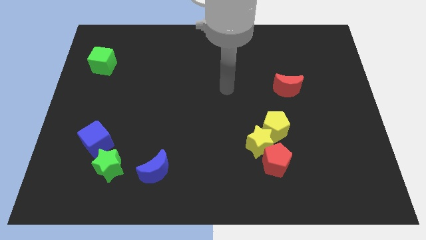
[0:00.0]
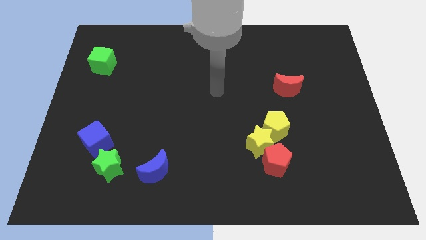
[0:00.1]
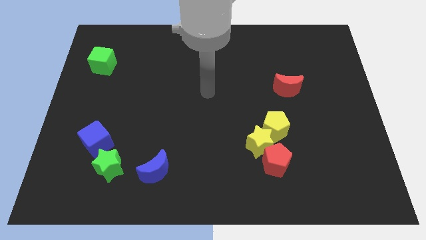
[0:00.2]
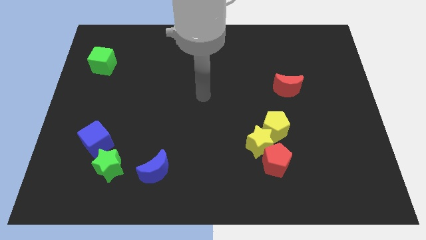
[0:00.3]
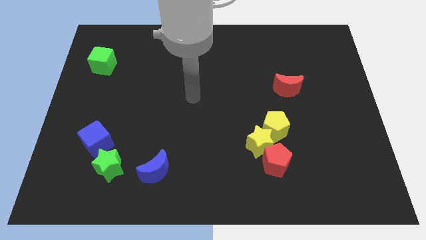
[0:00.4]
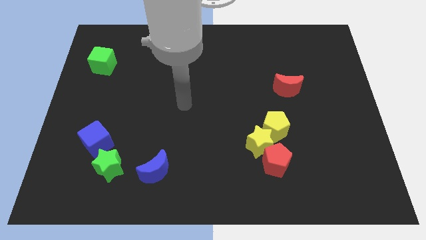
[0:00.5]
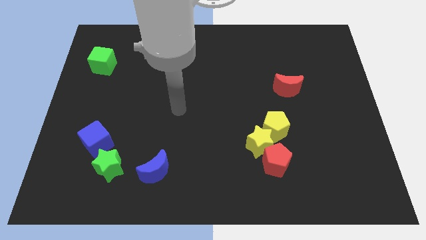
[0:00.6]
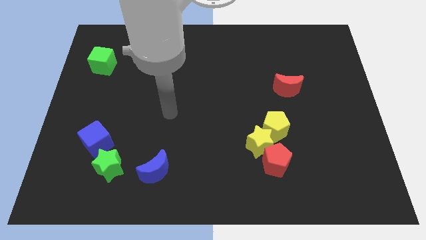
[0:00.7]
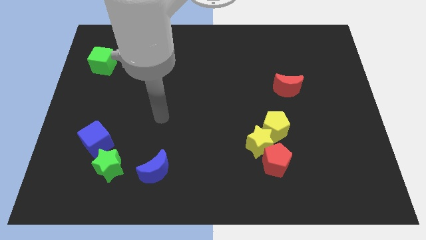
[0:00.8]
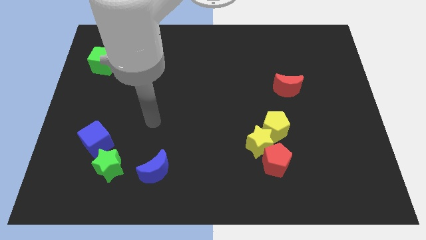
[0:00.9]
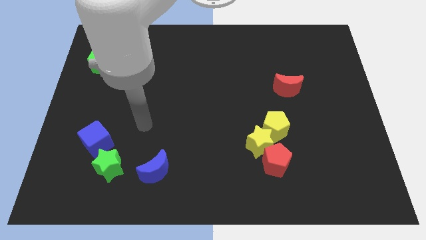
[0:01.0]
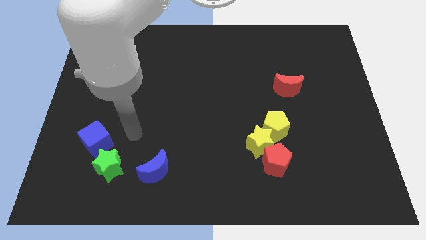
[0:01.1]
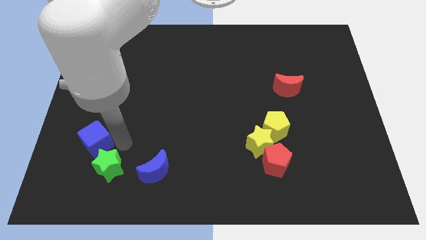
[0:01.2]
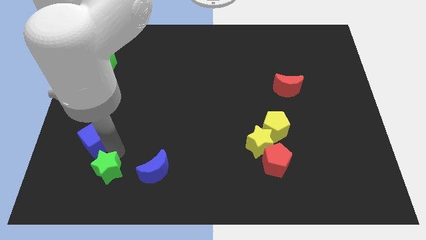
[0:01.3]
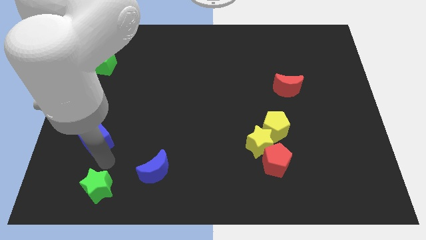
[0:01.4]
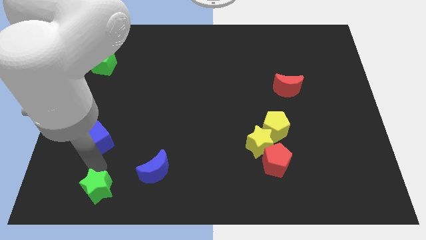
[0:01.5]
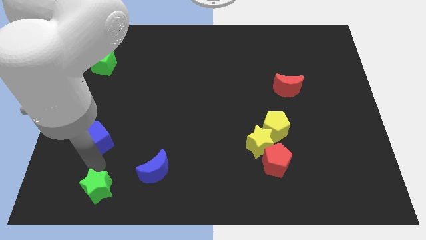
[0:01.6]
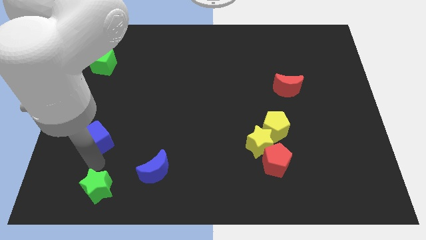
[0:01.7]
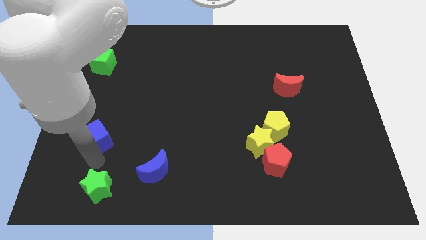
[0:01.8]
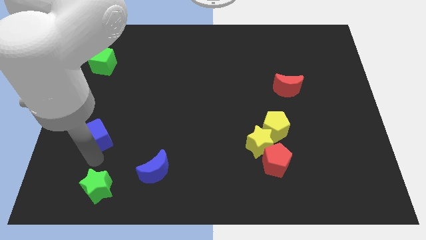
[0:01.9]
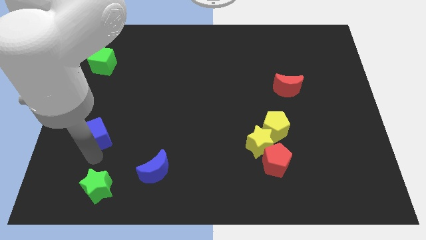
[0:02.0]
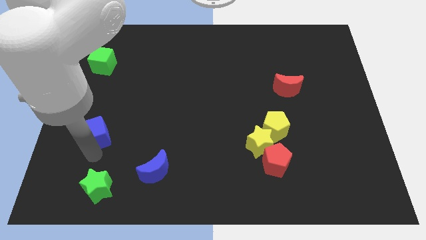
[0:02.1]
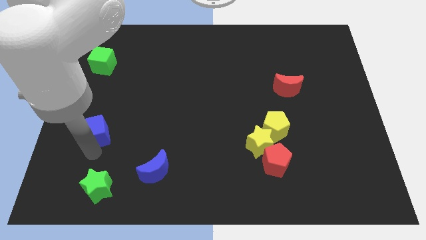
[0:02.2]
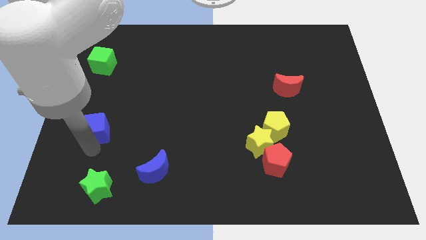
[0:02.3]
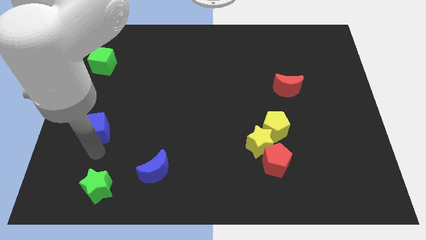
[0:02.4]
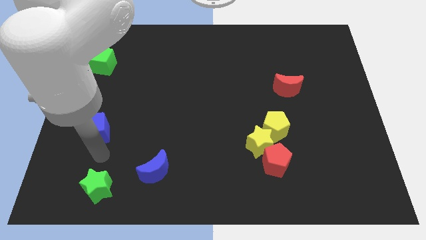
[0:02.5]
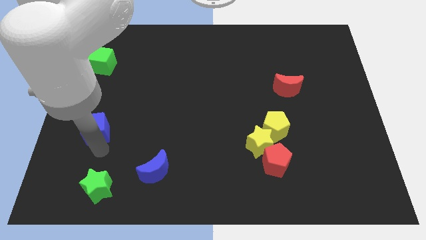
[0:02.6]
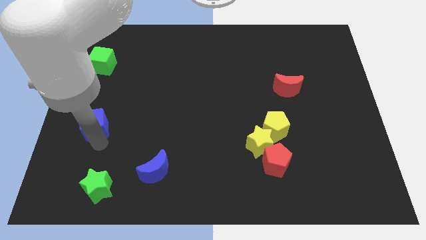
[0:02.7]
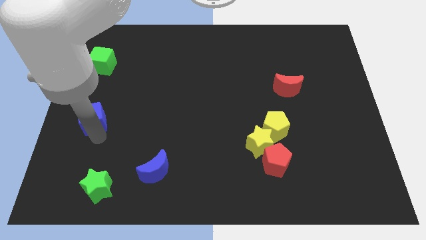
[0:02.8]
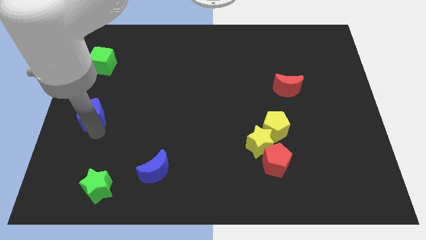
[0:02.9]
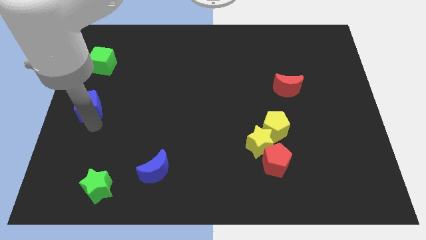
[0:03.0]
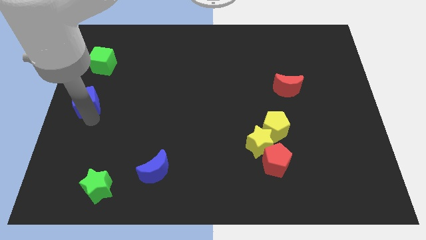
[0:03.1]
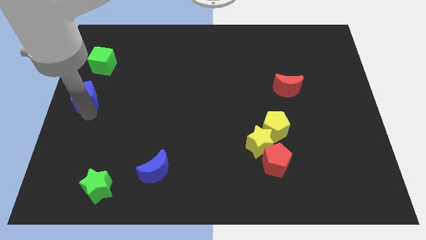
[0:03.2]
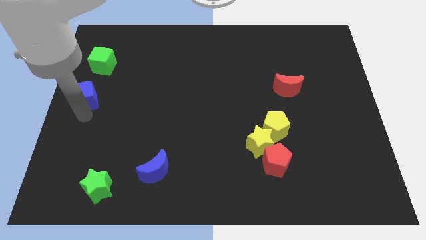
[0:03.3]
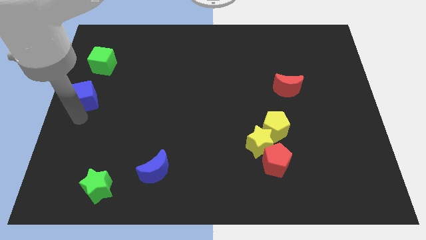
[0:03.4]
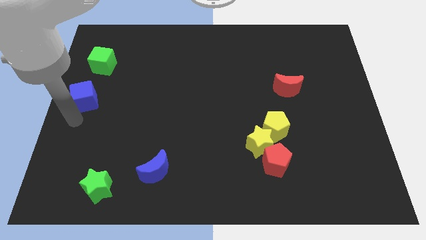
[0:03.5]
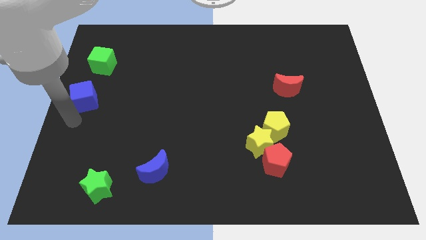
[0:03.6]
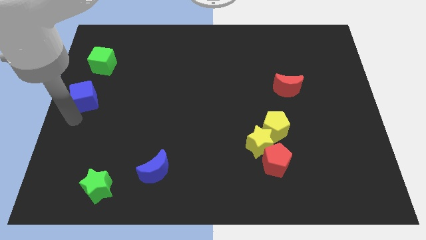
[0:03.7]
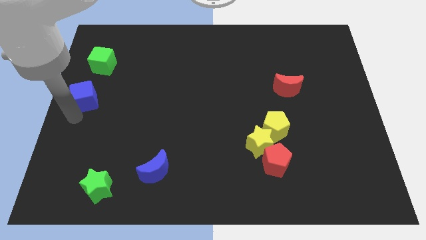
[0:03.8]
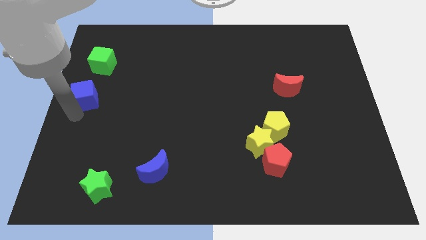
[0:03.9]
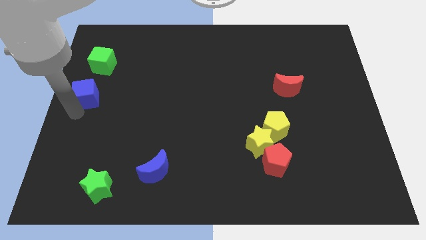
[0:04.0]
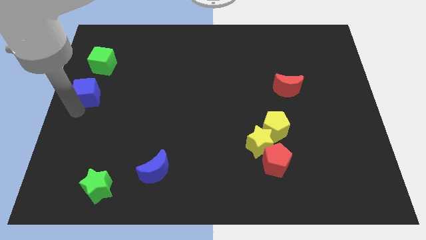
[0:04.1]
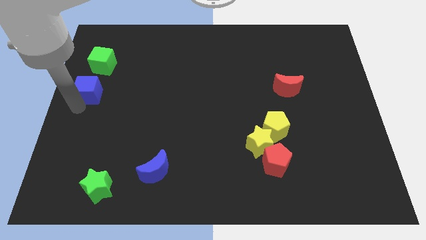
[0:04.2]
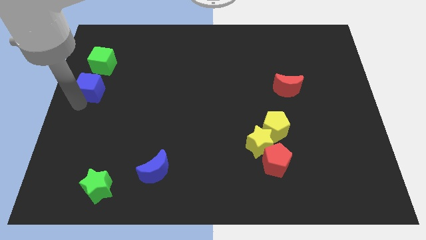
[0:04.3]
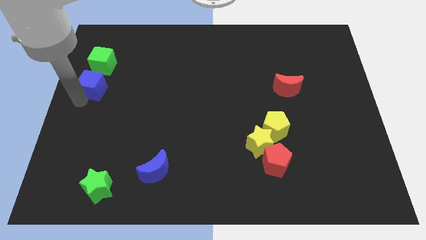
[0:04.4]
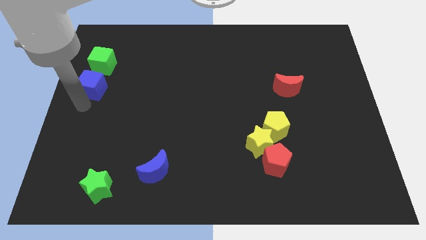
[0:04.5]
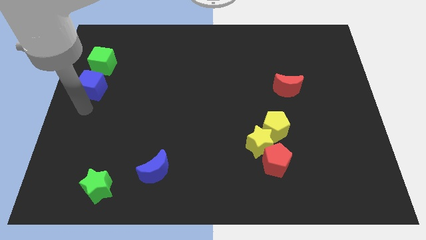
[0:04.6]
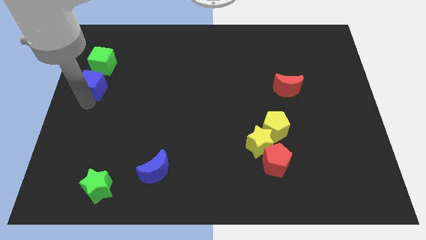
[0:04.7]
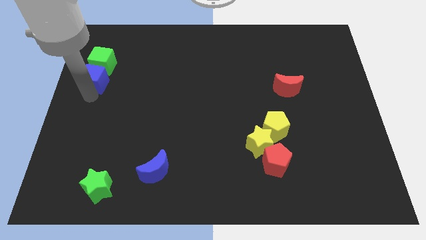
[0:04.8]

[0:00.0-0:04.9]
slide the blue cube next to the green cube

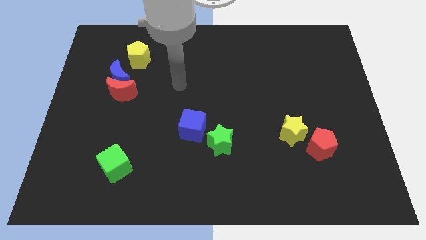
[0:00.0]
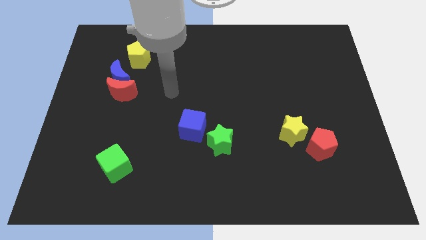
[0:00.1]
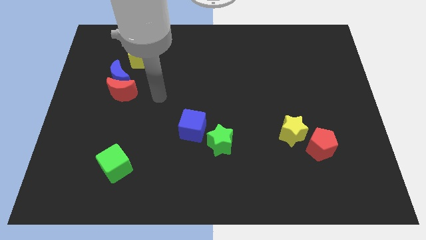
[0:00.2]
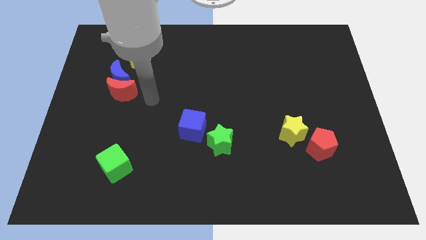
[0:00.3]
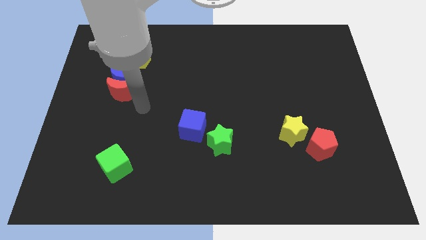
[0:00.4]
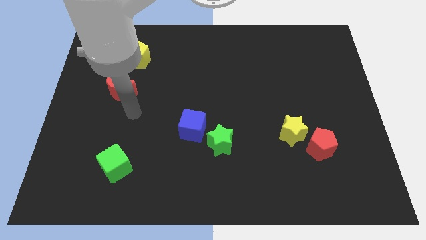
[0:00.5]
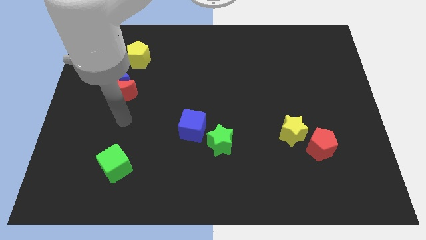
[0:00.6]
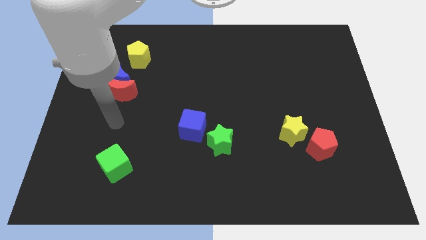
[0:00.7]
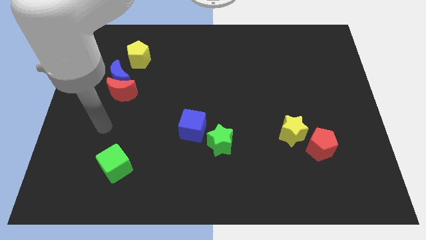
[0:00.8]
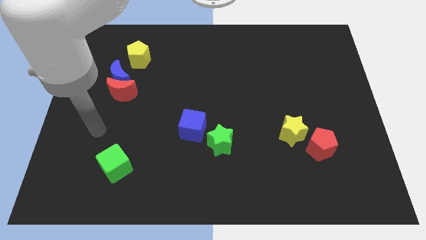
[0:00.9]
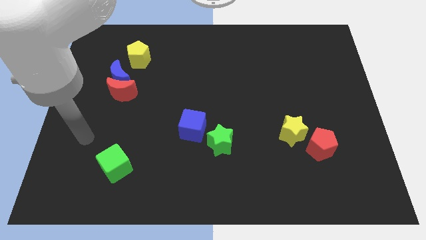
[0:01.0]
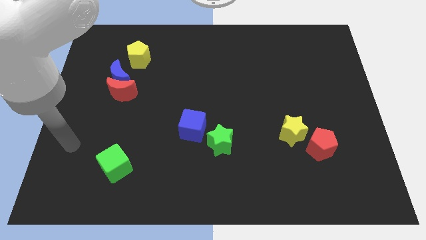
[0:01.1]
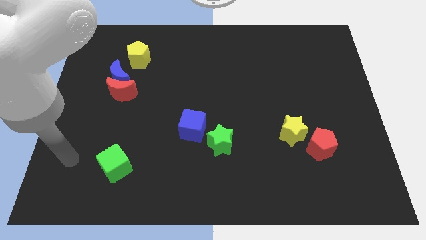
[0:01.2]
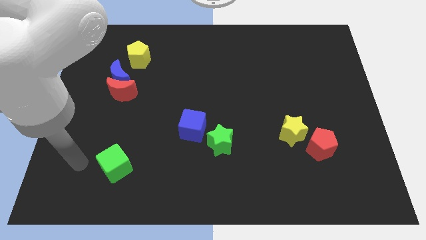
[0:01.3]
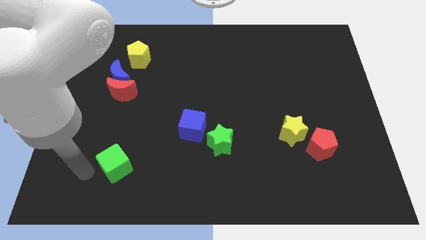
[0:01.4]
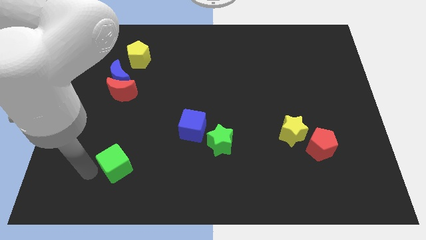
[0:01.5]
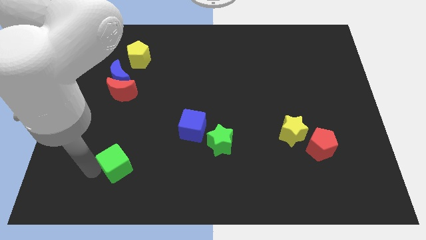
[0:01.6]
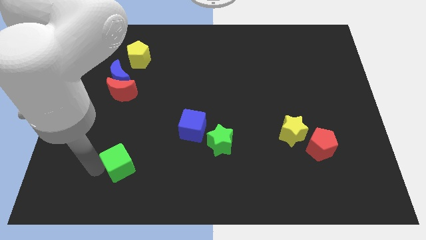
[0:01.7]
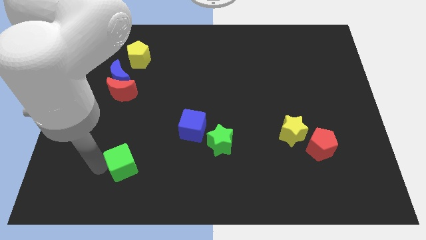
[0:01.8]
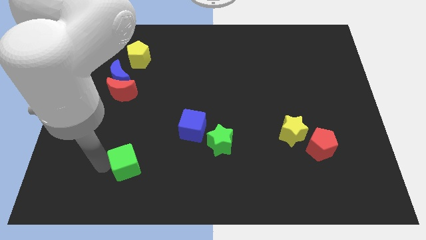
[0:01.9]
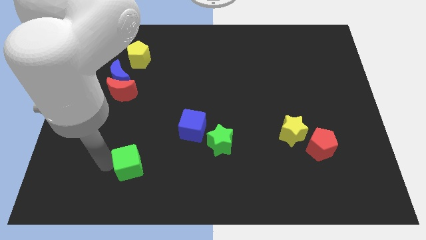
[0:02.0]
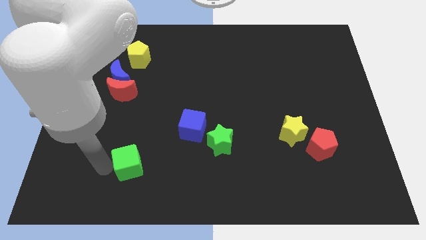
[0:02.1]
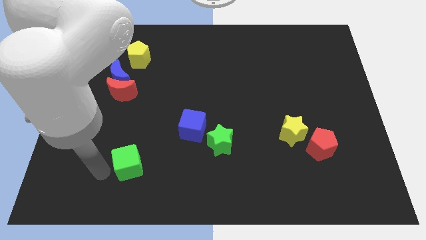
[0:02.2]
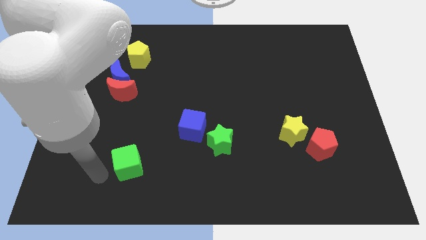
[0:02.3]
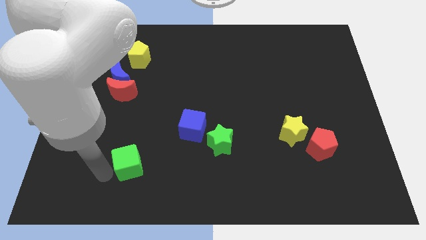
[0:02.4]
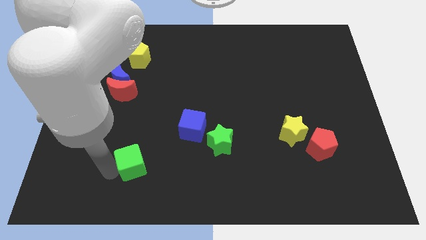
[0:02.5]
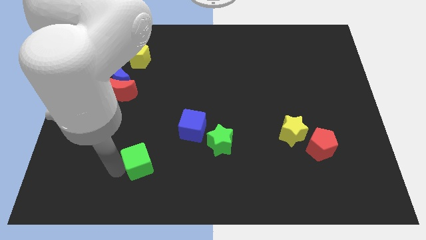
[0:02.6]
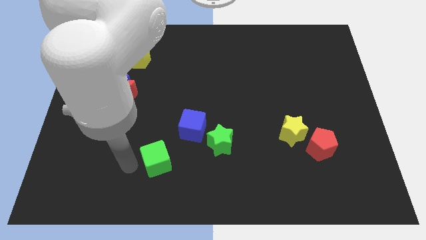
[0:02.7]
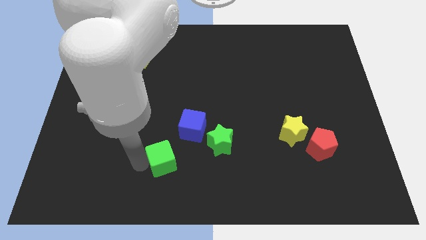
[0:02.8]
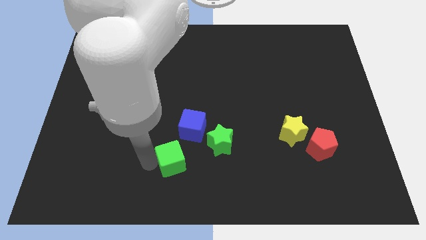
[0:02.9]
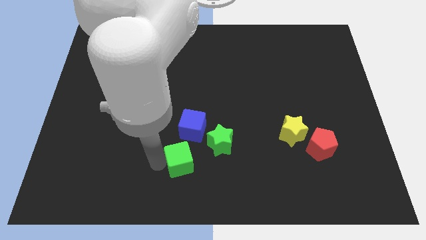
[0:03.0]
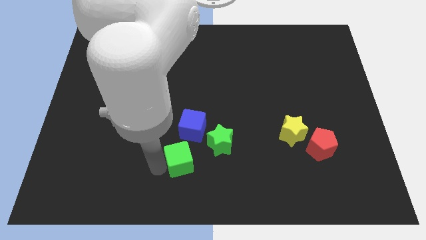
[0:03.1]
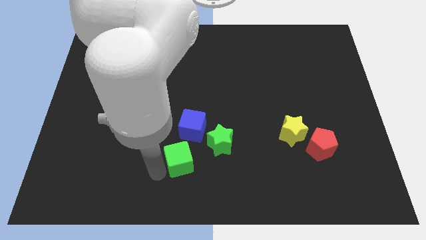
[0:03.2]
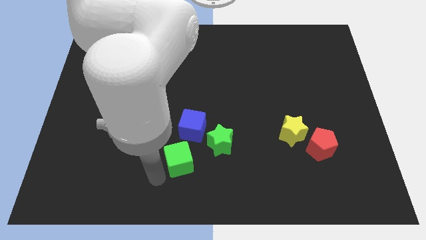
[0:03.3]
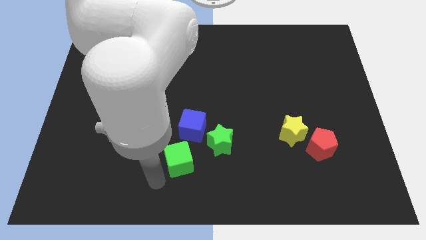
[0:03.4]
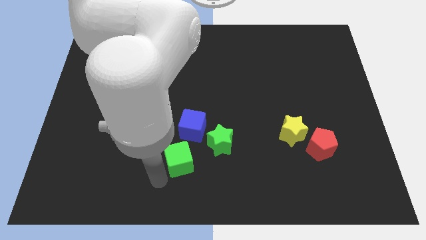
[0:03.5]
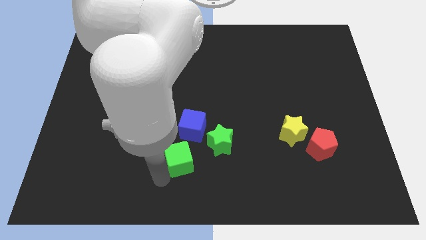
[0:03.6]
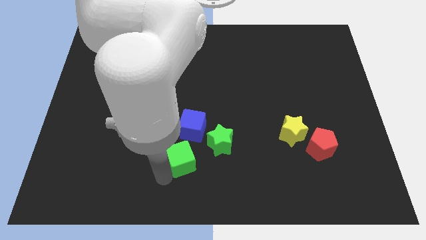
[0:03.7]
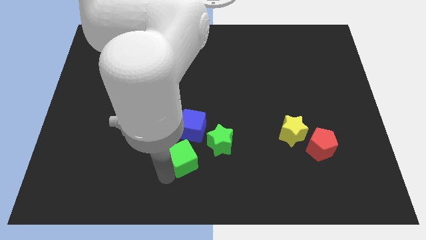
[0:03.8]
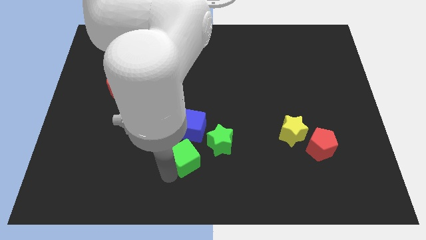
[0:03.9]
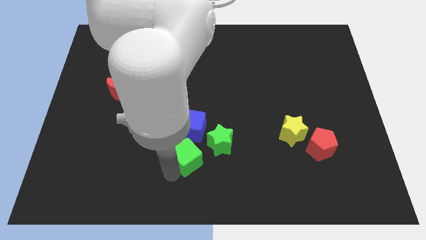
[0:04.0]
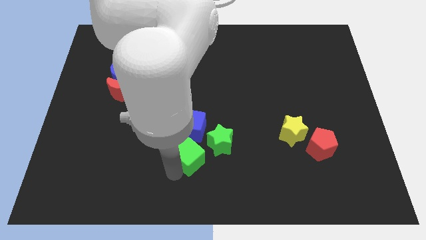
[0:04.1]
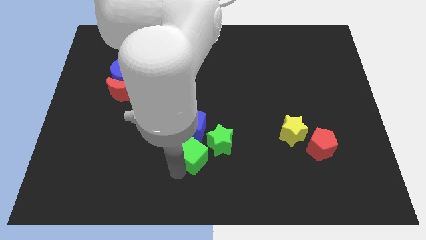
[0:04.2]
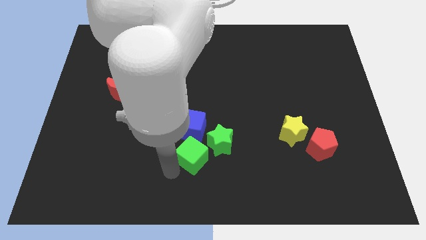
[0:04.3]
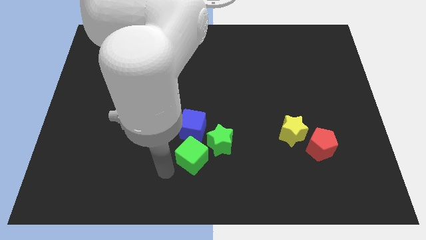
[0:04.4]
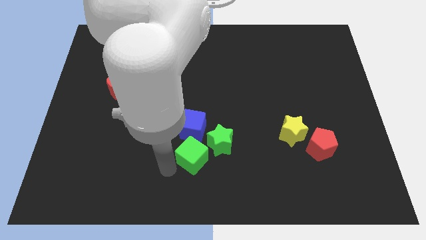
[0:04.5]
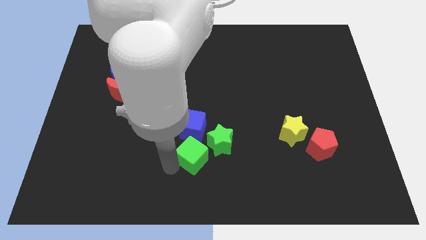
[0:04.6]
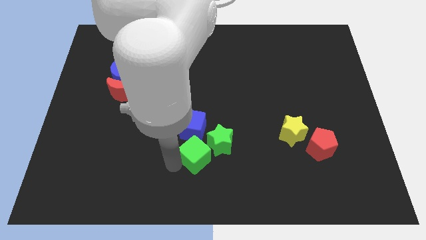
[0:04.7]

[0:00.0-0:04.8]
move the green cube towards the green star
